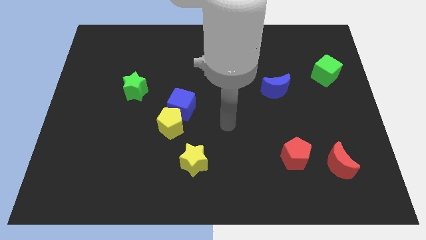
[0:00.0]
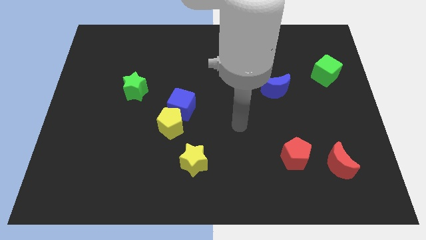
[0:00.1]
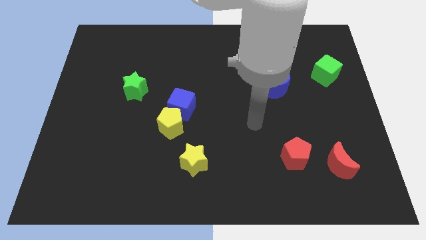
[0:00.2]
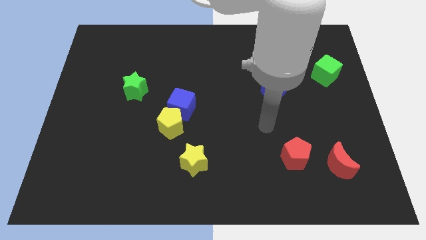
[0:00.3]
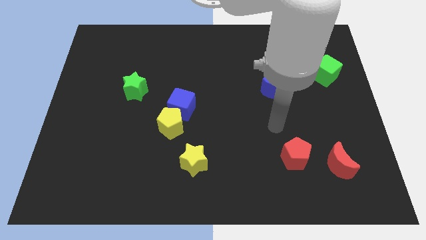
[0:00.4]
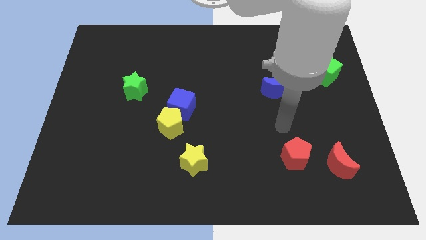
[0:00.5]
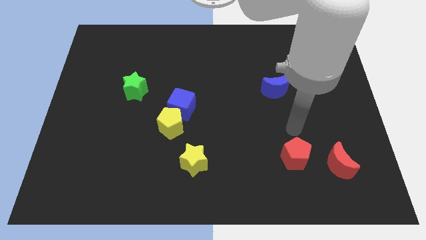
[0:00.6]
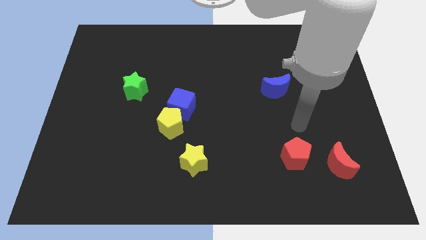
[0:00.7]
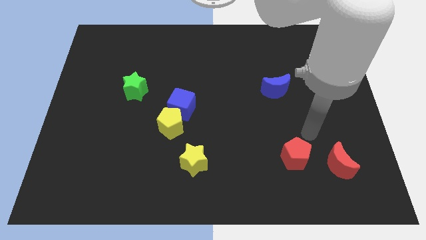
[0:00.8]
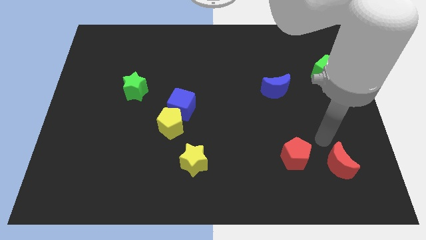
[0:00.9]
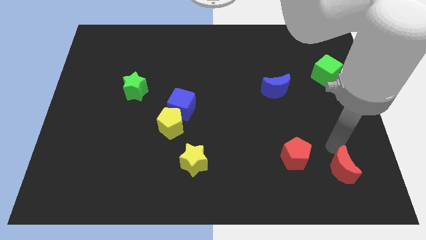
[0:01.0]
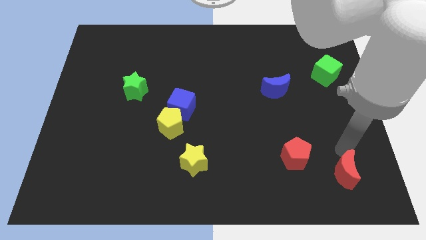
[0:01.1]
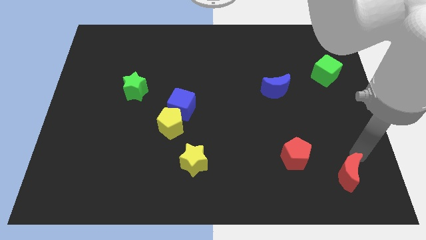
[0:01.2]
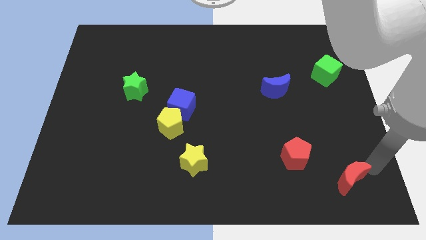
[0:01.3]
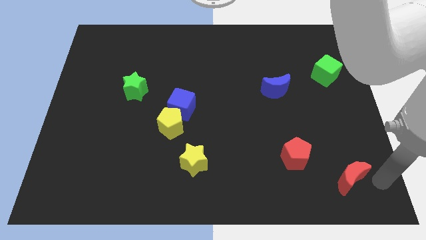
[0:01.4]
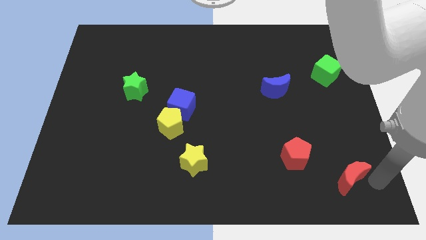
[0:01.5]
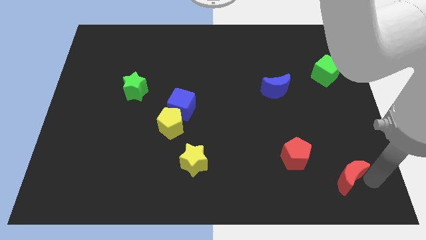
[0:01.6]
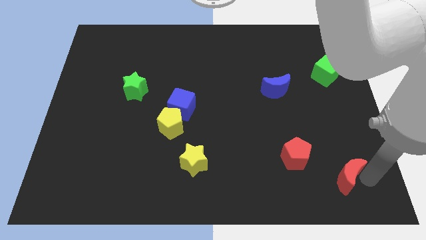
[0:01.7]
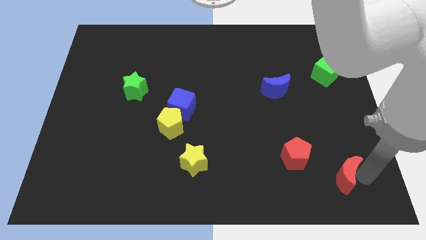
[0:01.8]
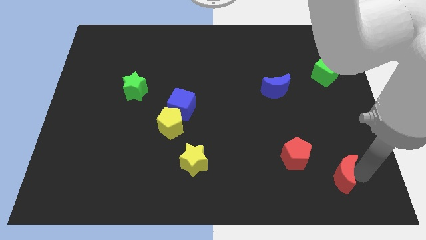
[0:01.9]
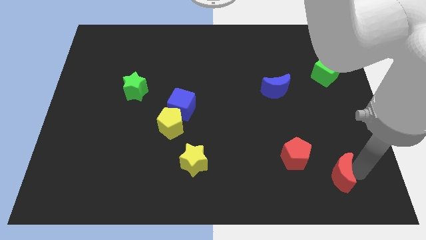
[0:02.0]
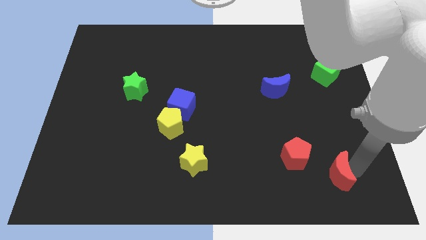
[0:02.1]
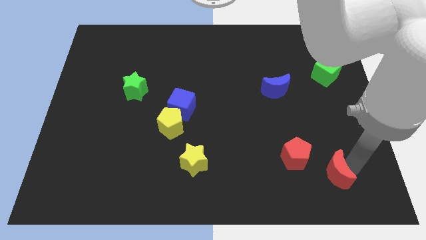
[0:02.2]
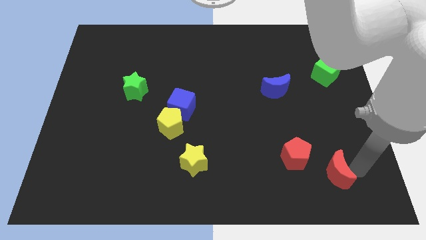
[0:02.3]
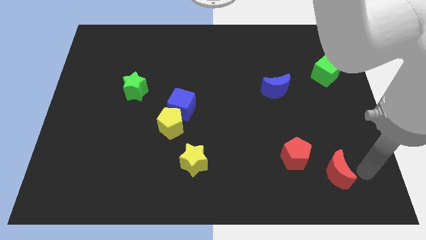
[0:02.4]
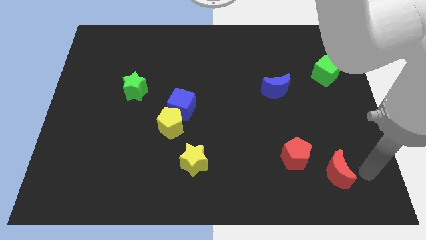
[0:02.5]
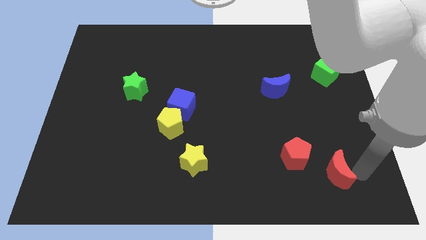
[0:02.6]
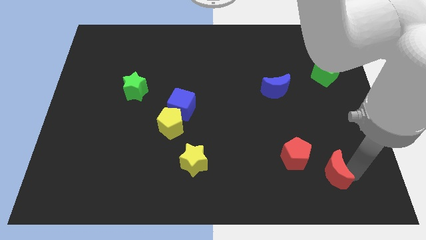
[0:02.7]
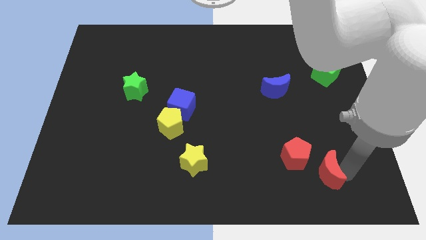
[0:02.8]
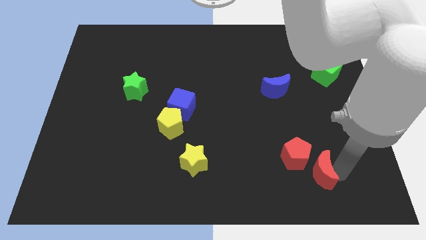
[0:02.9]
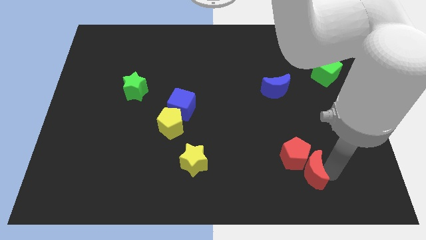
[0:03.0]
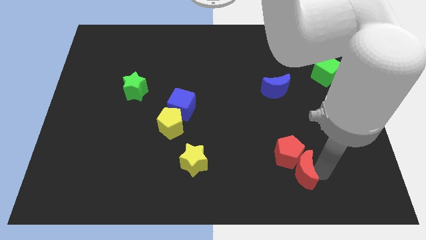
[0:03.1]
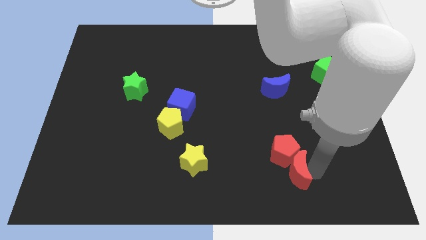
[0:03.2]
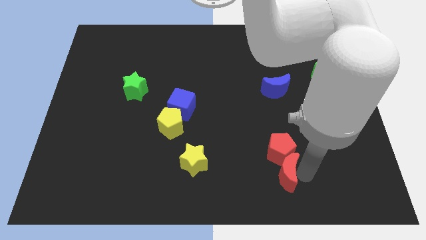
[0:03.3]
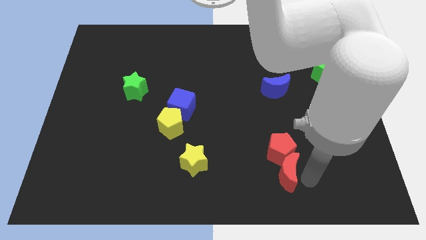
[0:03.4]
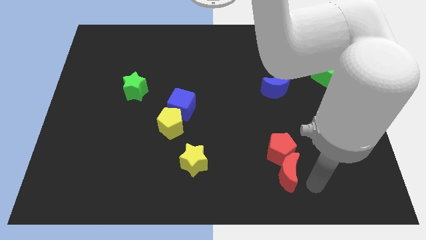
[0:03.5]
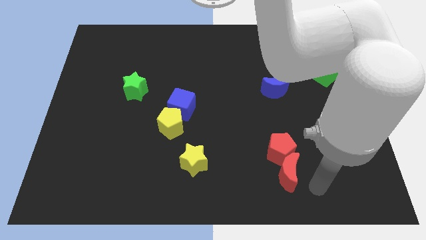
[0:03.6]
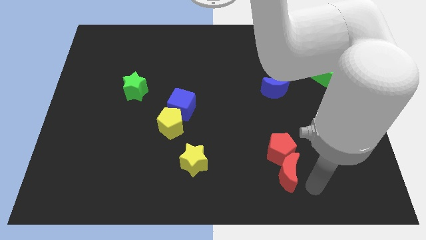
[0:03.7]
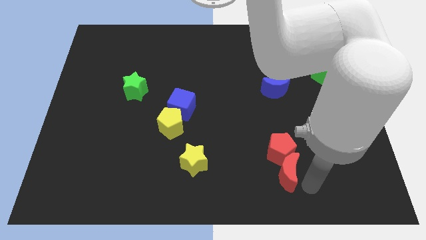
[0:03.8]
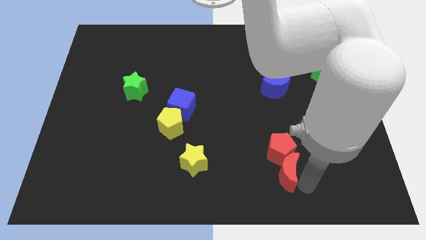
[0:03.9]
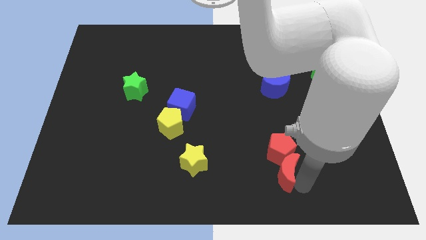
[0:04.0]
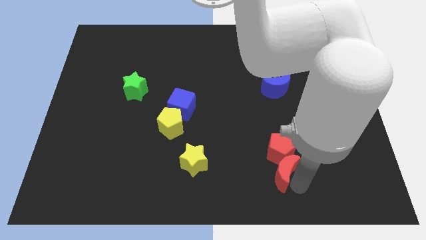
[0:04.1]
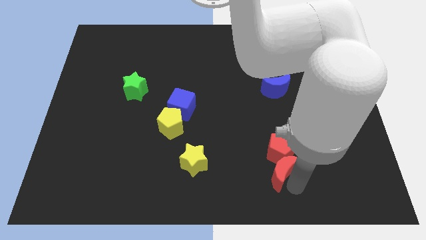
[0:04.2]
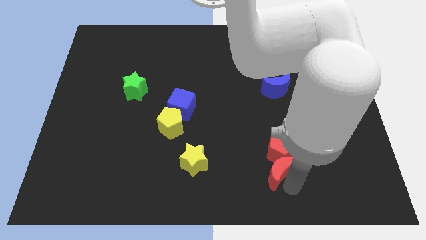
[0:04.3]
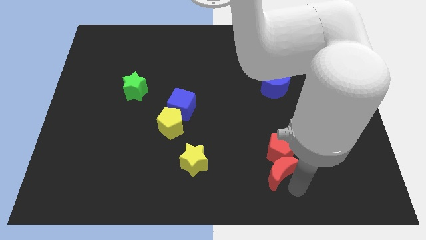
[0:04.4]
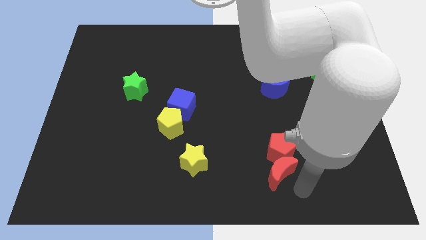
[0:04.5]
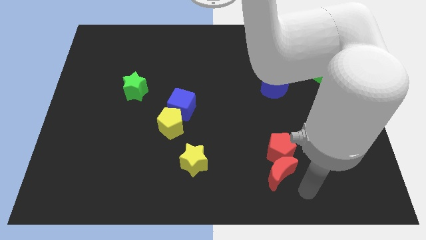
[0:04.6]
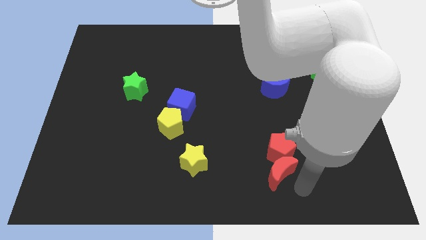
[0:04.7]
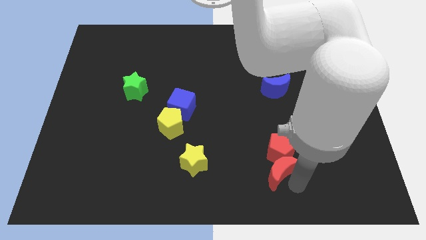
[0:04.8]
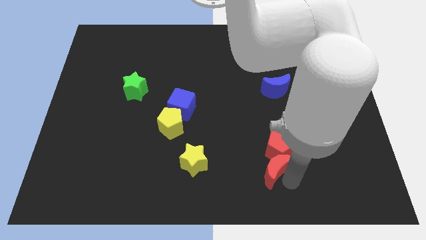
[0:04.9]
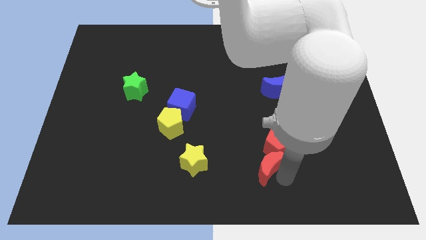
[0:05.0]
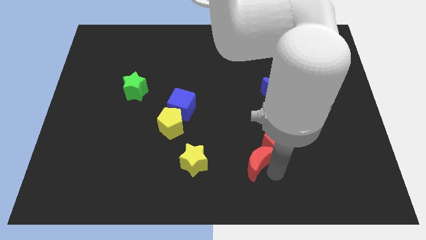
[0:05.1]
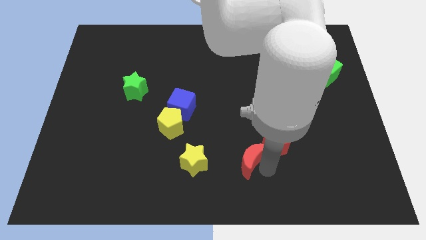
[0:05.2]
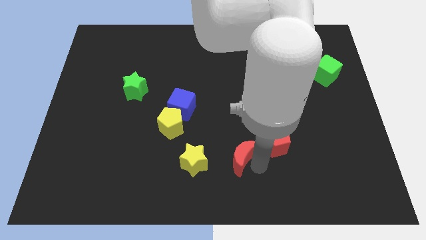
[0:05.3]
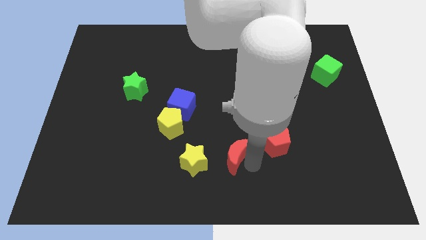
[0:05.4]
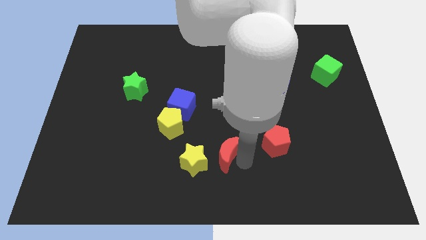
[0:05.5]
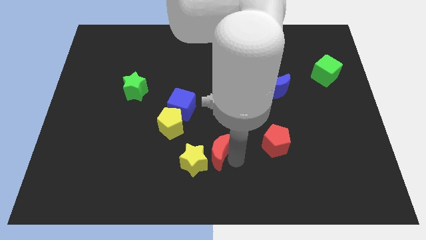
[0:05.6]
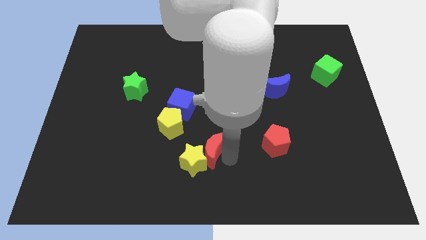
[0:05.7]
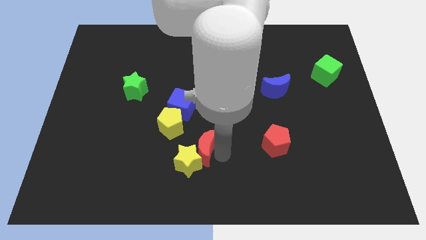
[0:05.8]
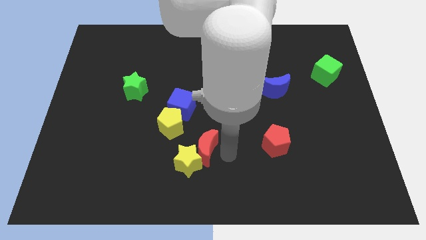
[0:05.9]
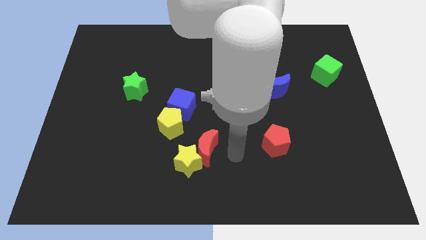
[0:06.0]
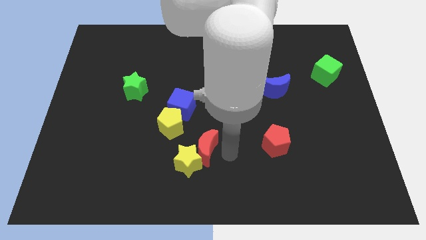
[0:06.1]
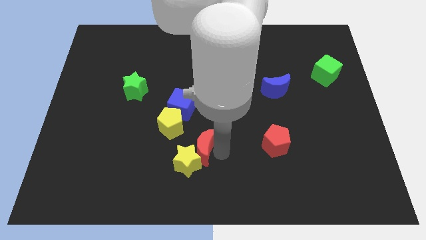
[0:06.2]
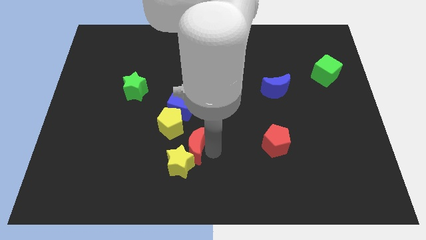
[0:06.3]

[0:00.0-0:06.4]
put the red moon below the blue cube
